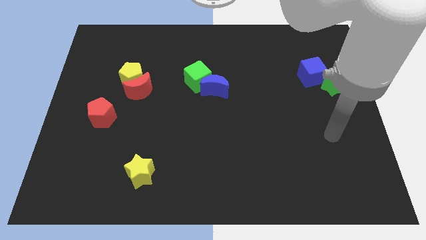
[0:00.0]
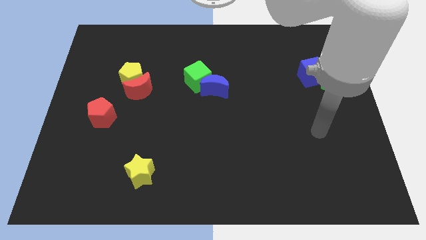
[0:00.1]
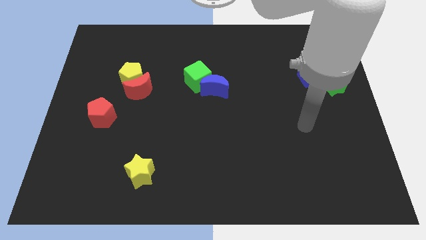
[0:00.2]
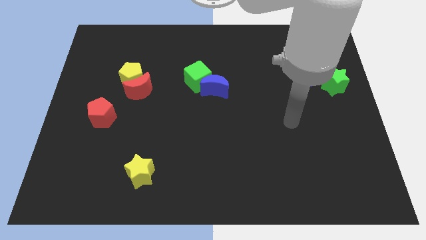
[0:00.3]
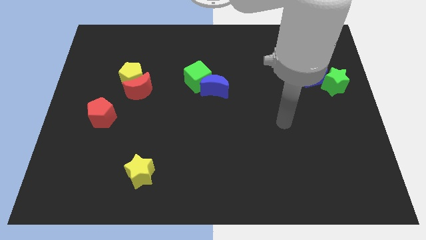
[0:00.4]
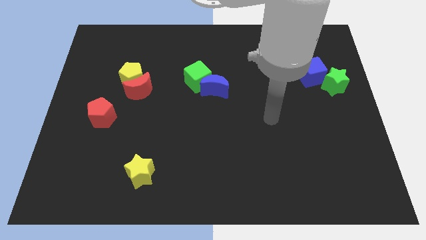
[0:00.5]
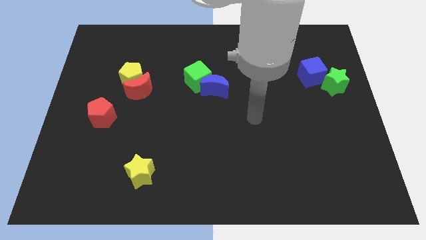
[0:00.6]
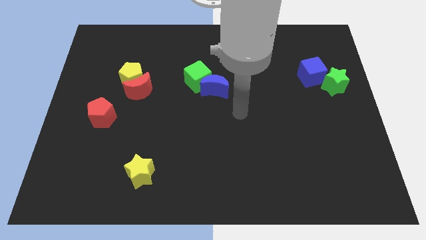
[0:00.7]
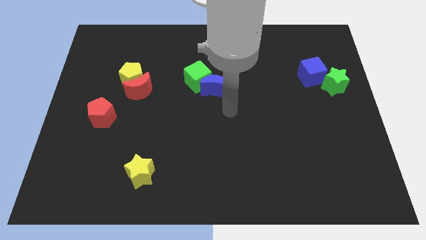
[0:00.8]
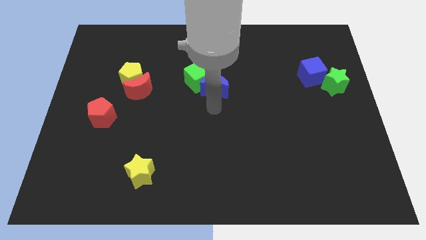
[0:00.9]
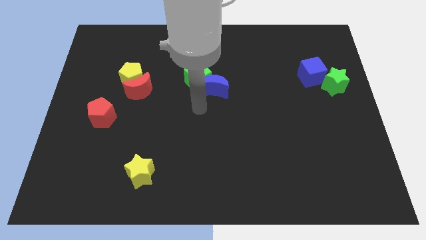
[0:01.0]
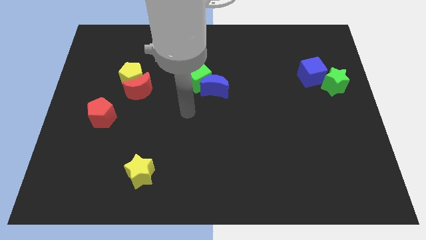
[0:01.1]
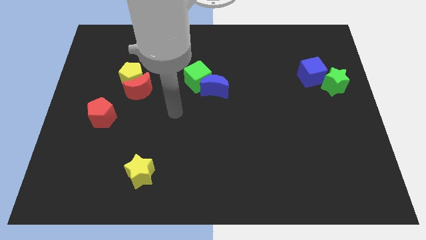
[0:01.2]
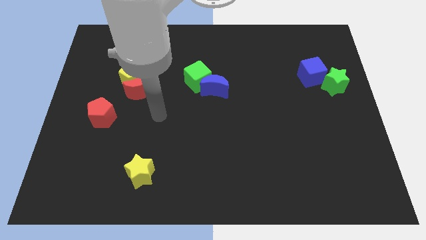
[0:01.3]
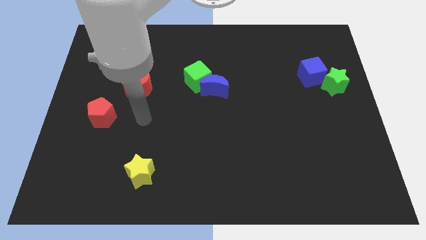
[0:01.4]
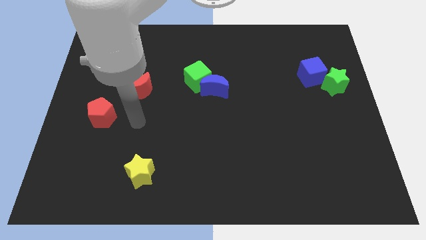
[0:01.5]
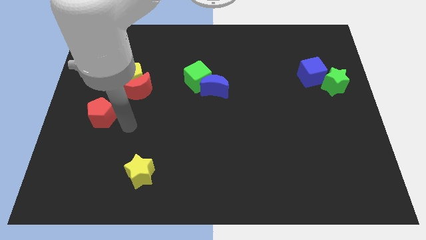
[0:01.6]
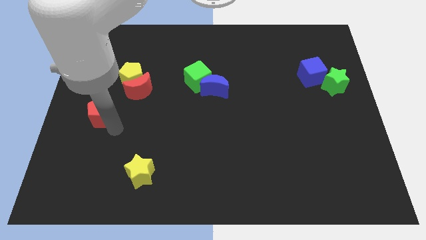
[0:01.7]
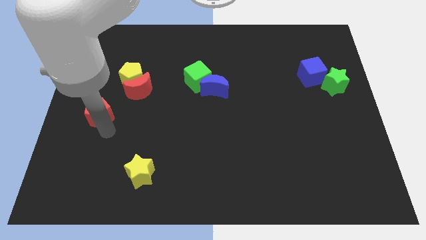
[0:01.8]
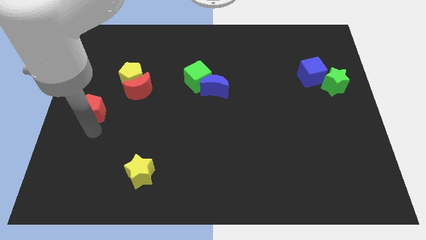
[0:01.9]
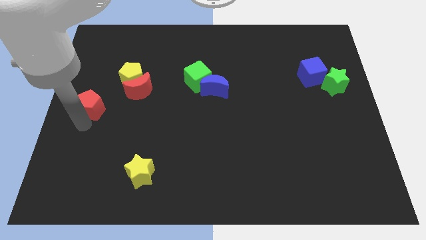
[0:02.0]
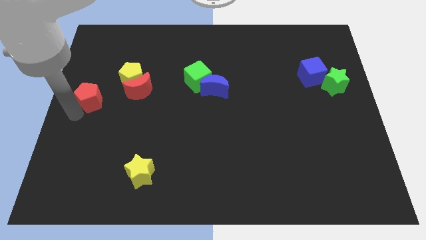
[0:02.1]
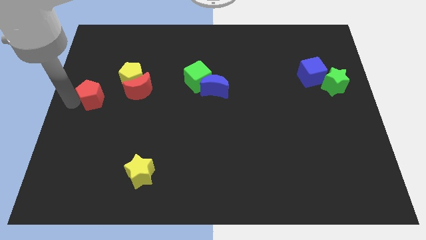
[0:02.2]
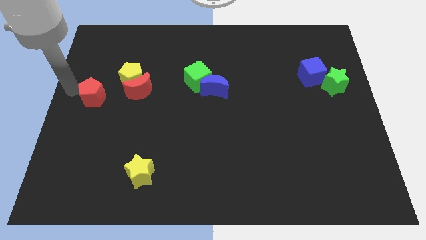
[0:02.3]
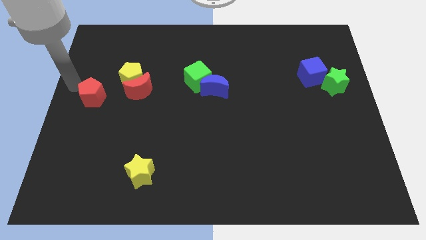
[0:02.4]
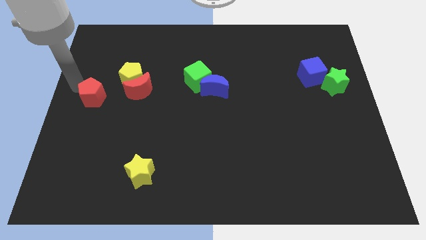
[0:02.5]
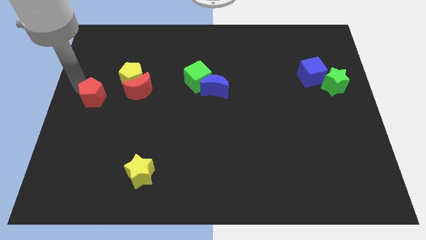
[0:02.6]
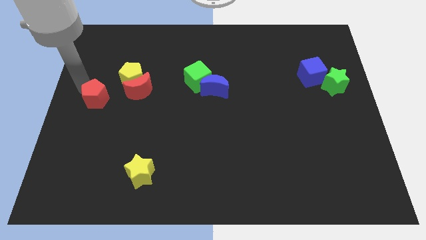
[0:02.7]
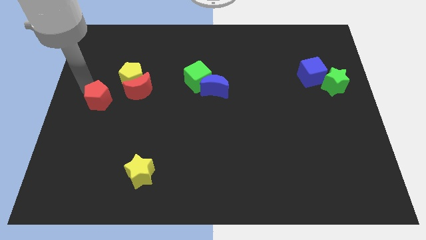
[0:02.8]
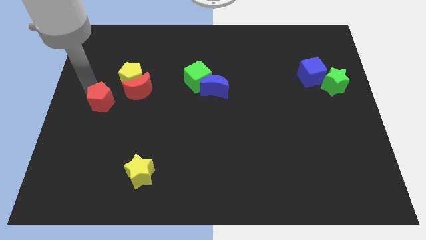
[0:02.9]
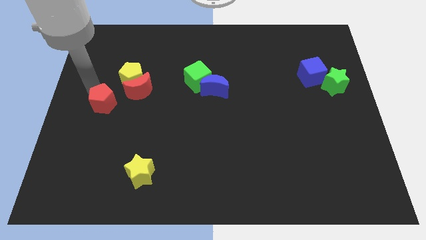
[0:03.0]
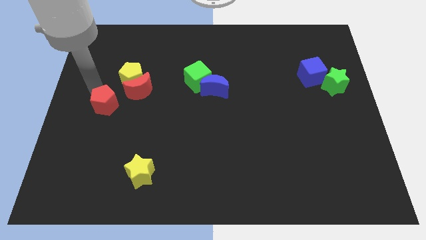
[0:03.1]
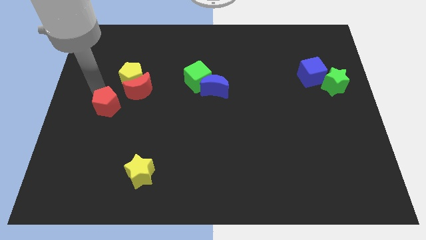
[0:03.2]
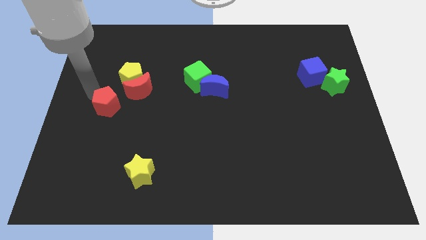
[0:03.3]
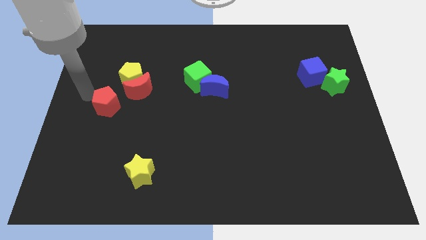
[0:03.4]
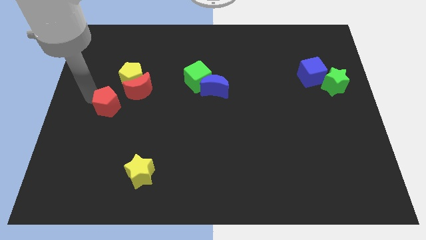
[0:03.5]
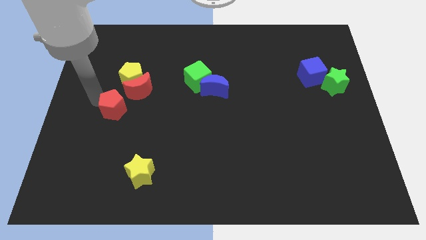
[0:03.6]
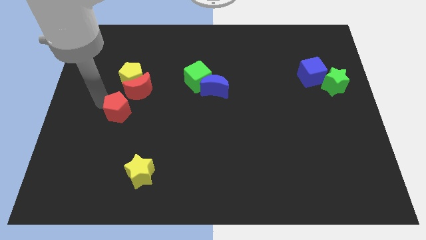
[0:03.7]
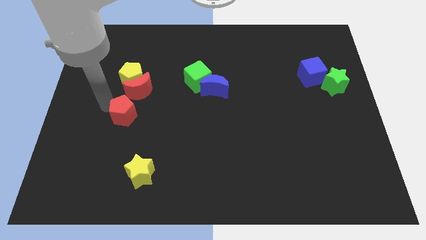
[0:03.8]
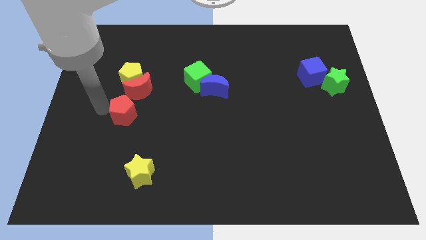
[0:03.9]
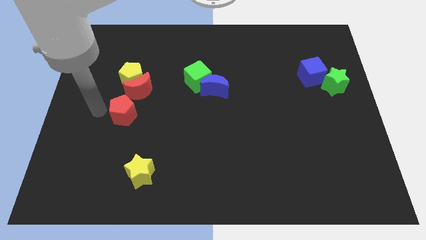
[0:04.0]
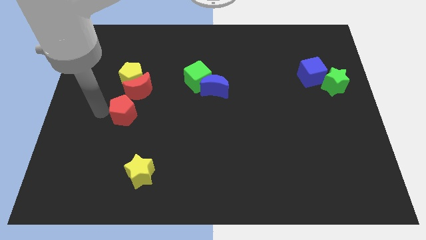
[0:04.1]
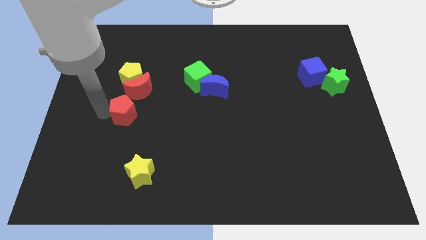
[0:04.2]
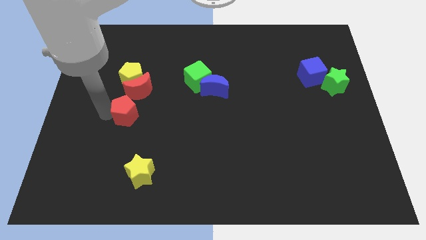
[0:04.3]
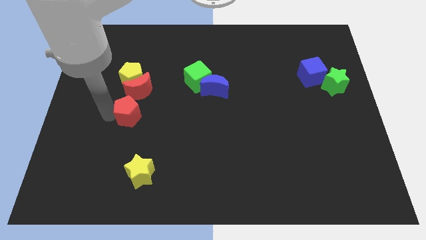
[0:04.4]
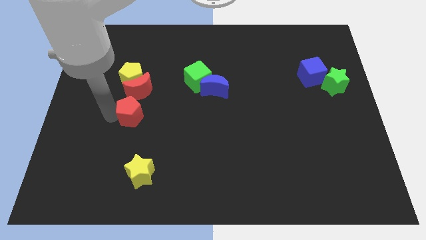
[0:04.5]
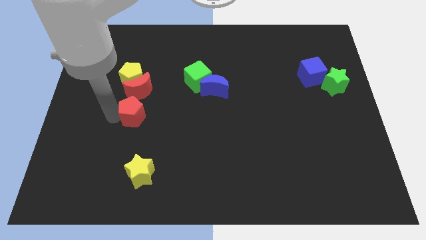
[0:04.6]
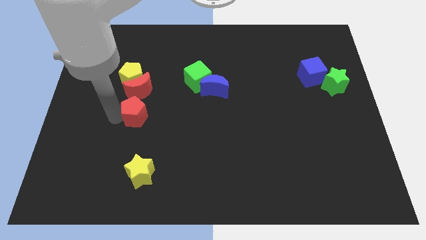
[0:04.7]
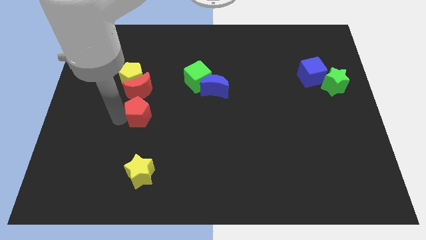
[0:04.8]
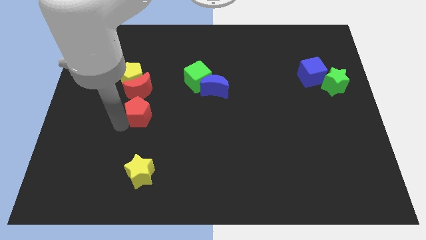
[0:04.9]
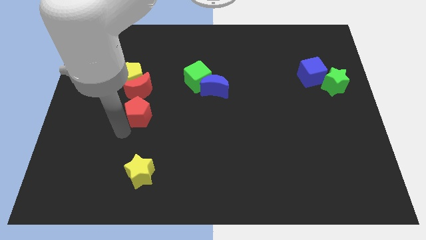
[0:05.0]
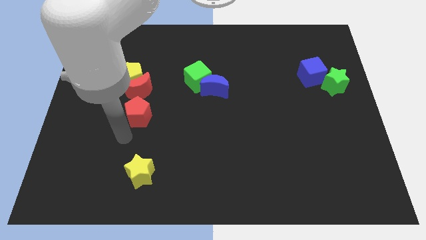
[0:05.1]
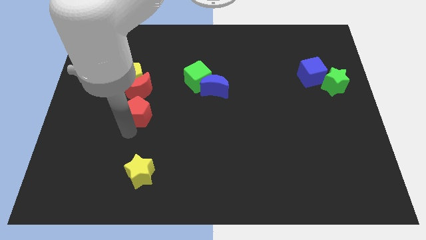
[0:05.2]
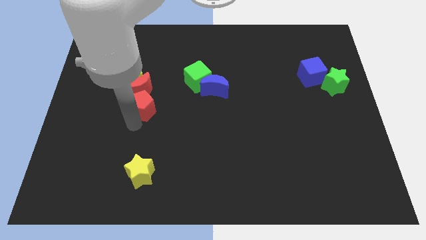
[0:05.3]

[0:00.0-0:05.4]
push the red pentagon a bit up and then to the right

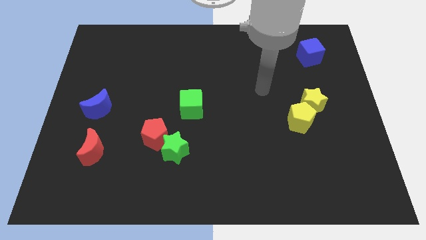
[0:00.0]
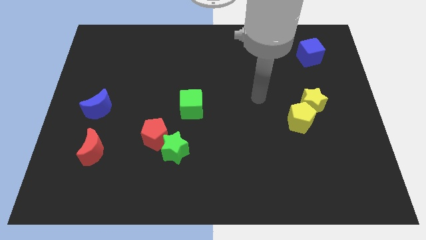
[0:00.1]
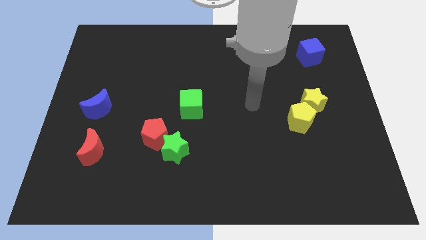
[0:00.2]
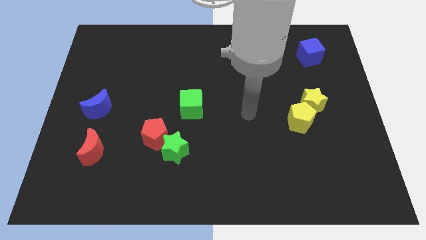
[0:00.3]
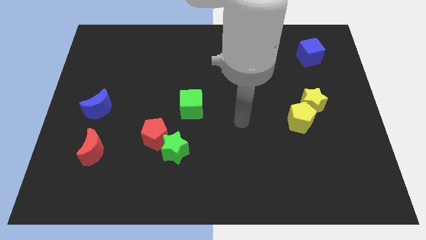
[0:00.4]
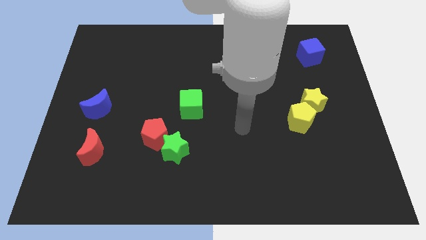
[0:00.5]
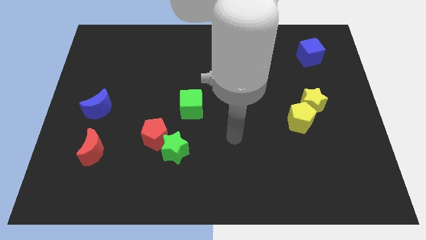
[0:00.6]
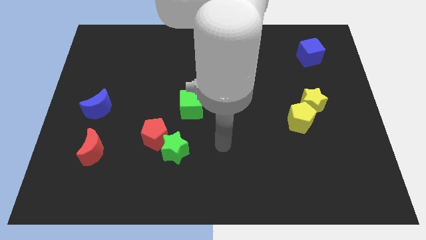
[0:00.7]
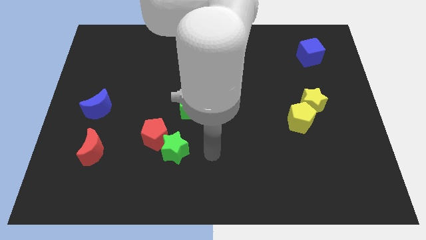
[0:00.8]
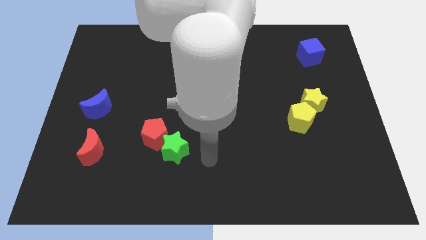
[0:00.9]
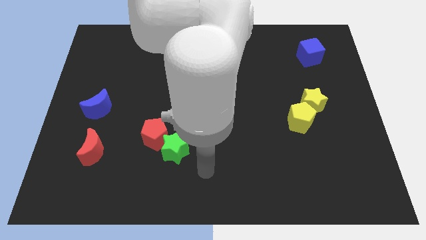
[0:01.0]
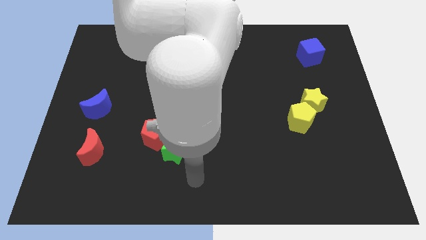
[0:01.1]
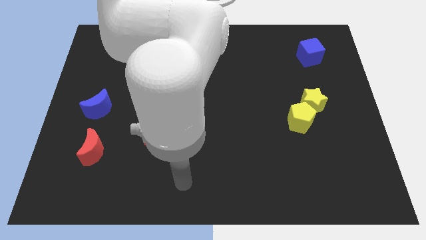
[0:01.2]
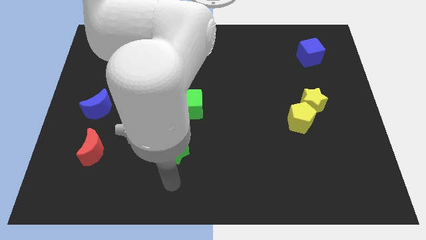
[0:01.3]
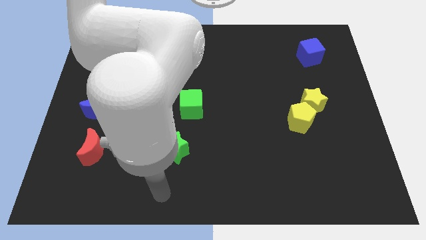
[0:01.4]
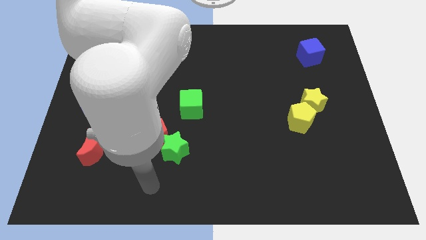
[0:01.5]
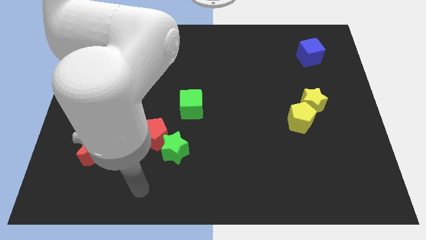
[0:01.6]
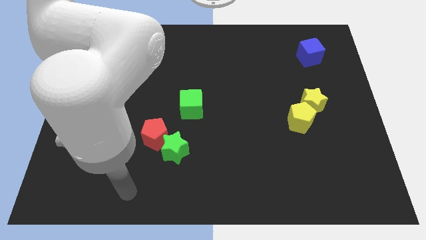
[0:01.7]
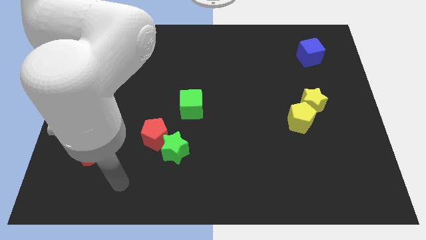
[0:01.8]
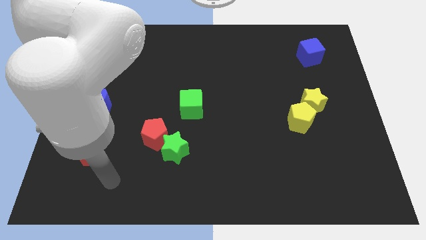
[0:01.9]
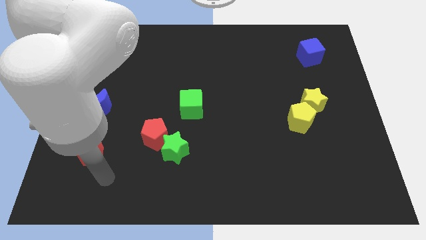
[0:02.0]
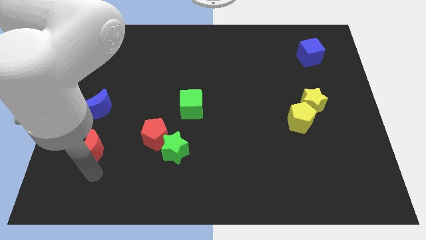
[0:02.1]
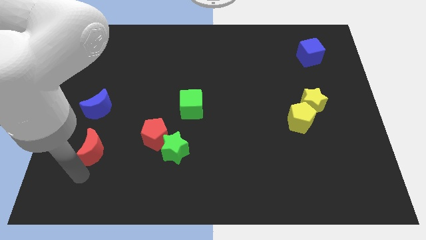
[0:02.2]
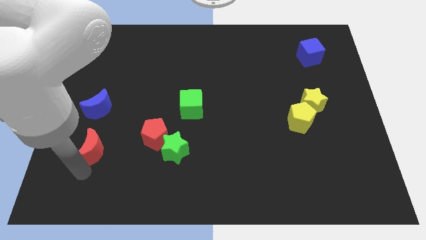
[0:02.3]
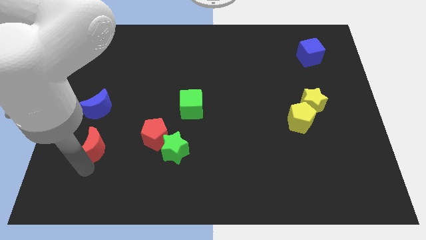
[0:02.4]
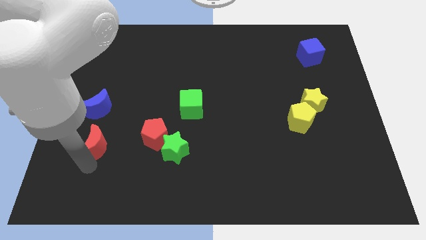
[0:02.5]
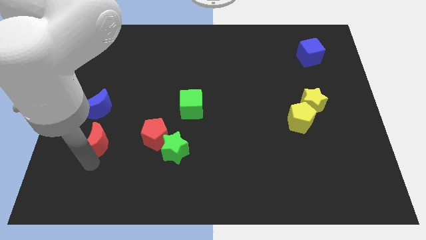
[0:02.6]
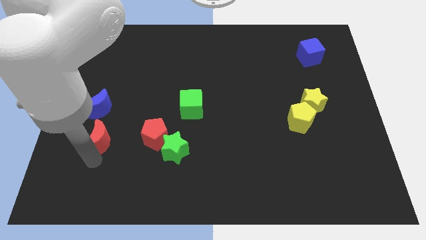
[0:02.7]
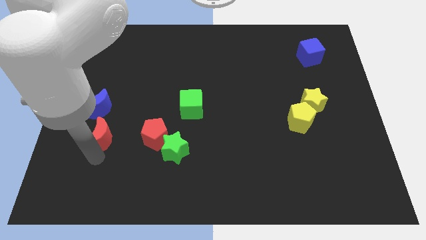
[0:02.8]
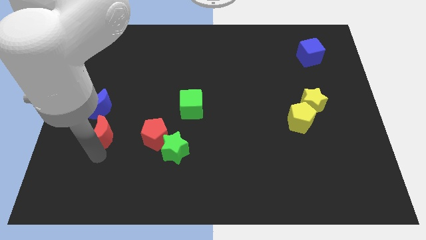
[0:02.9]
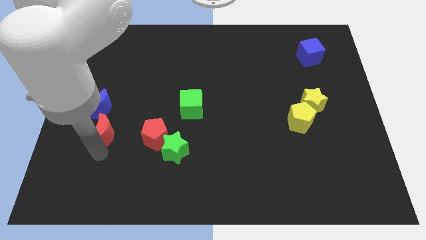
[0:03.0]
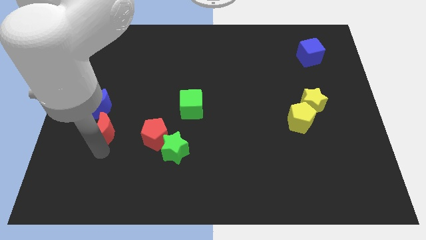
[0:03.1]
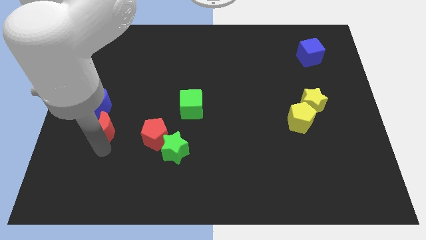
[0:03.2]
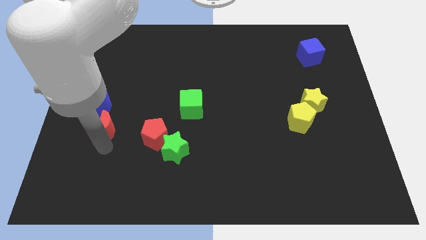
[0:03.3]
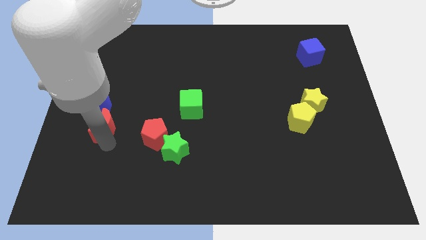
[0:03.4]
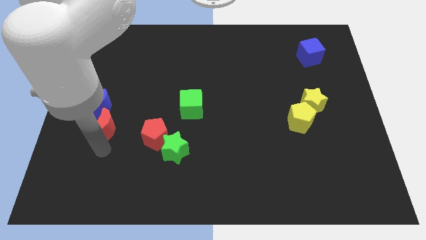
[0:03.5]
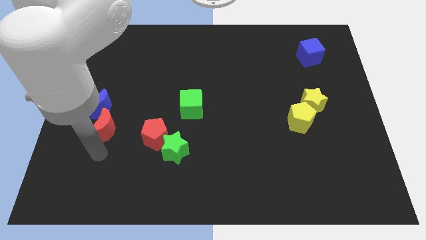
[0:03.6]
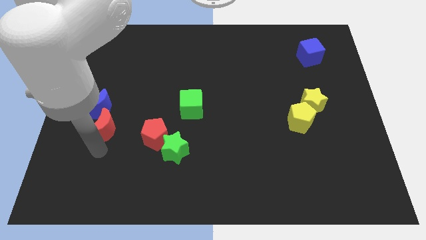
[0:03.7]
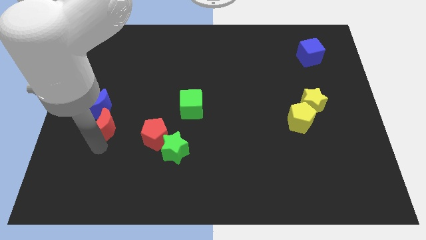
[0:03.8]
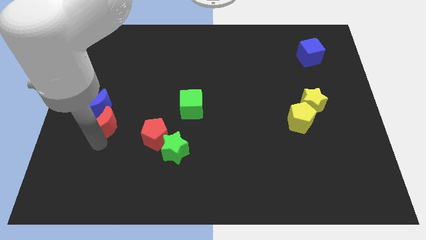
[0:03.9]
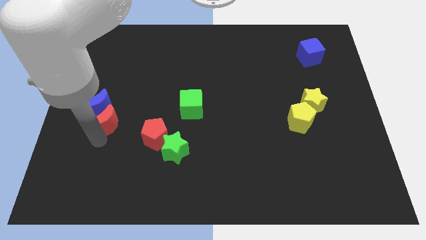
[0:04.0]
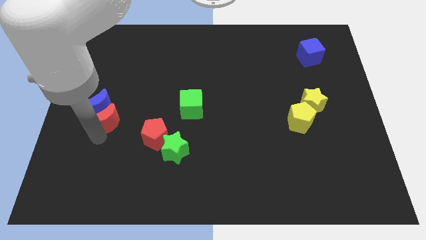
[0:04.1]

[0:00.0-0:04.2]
slide the red moon a little up
